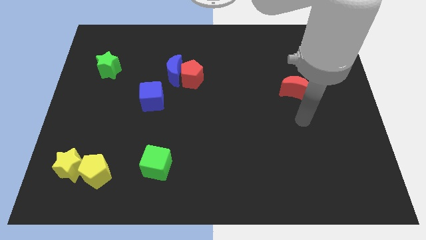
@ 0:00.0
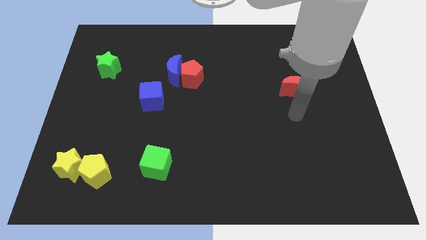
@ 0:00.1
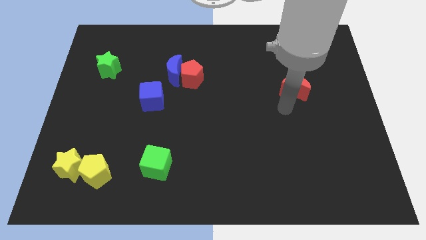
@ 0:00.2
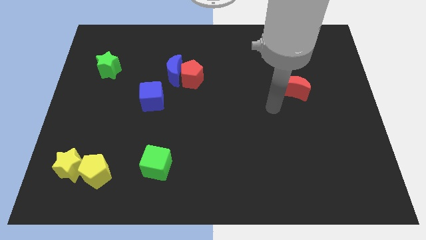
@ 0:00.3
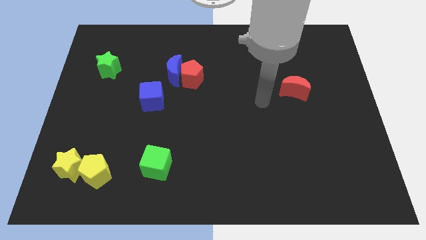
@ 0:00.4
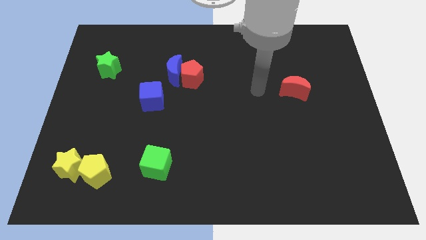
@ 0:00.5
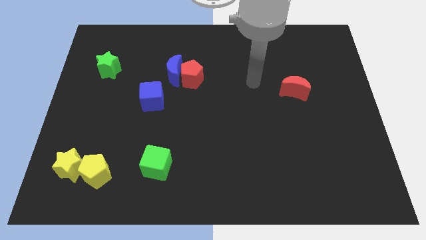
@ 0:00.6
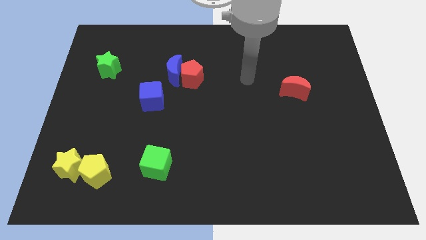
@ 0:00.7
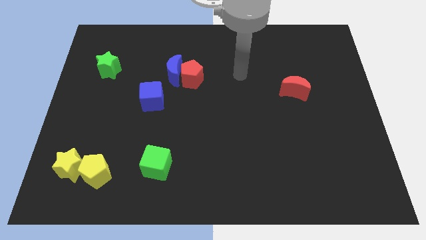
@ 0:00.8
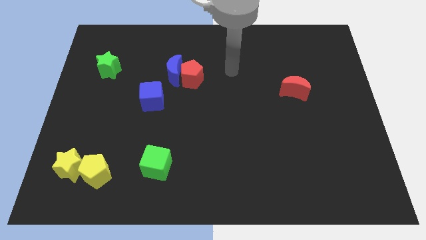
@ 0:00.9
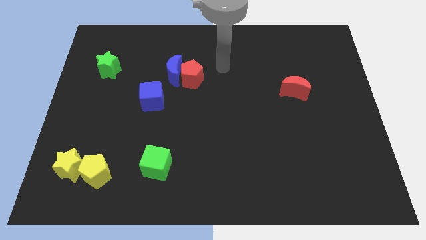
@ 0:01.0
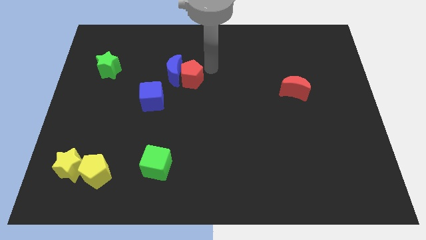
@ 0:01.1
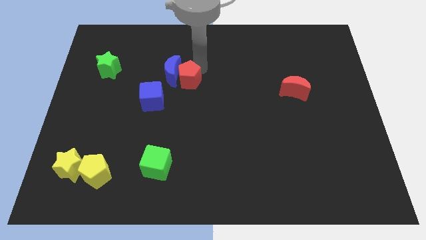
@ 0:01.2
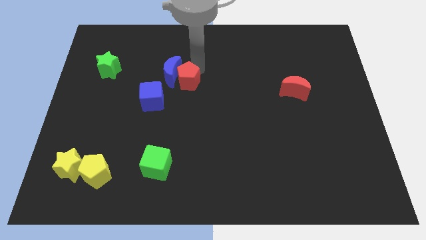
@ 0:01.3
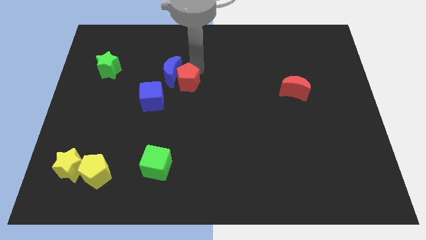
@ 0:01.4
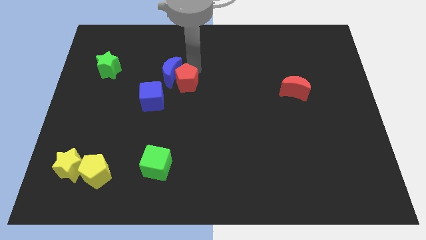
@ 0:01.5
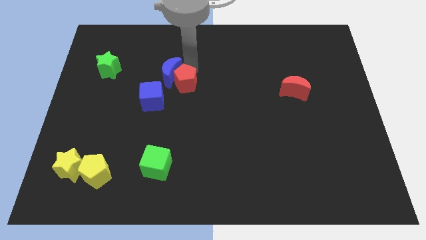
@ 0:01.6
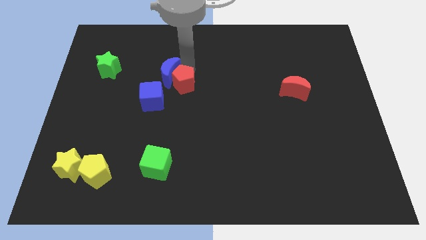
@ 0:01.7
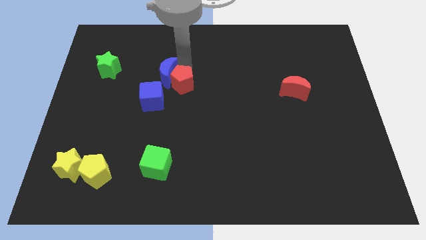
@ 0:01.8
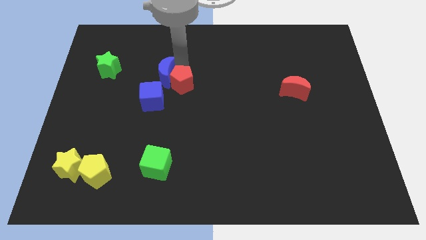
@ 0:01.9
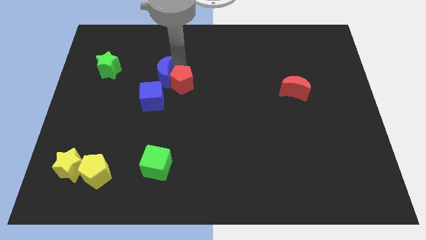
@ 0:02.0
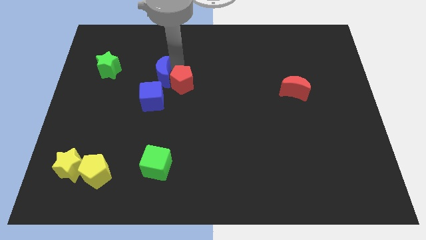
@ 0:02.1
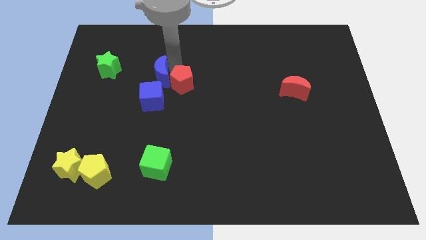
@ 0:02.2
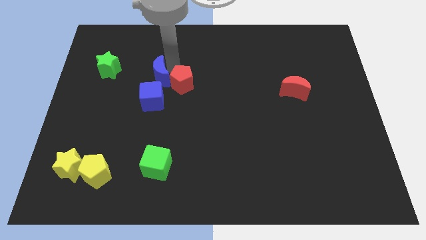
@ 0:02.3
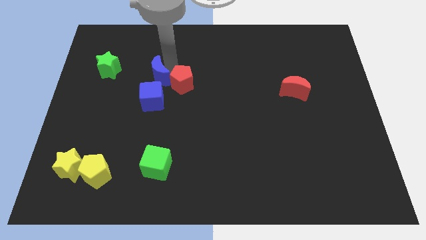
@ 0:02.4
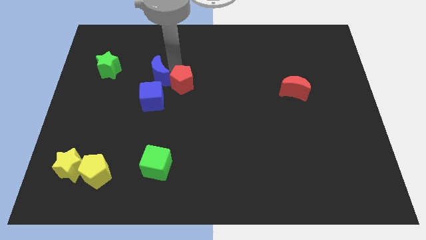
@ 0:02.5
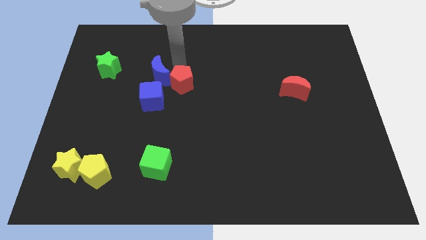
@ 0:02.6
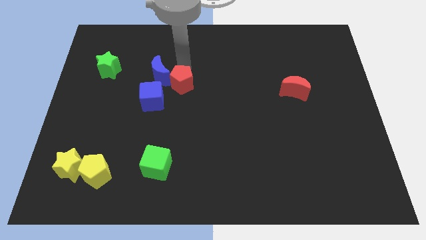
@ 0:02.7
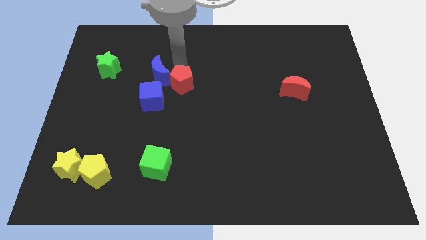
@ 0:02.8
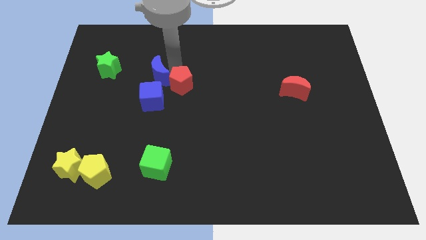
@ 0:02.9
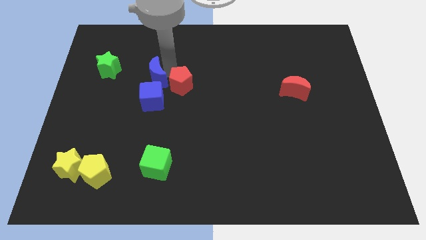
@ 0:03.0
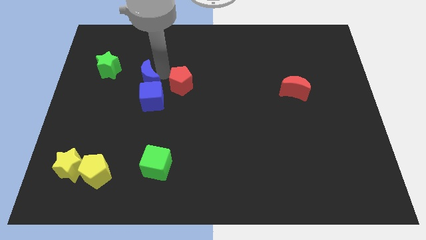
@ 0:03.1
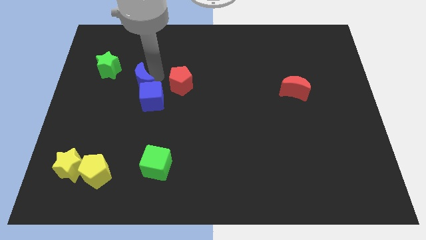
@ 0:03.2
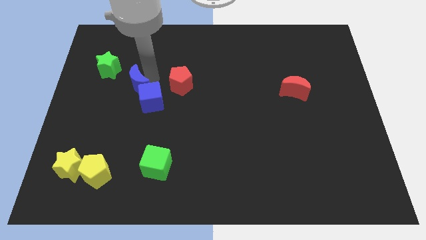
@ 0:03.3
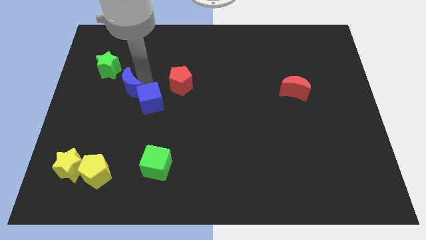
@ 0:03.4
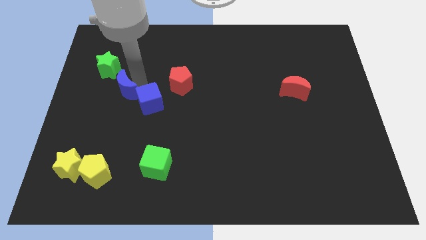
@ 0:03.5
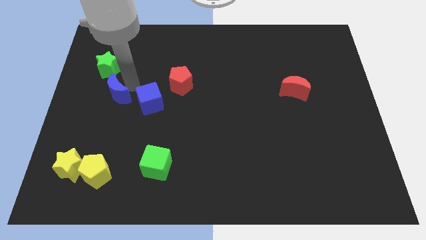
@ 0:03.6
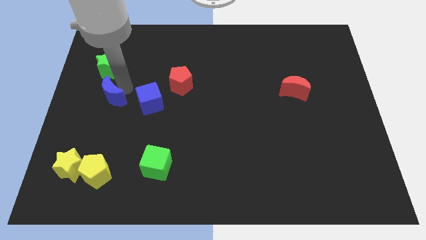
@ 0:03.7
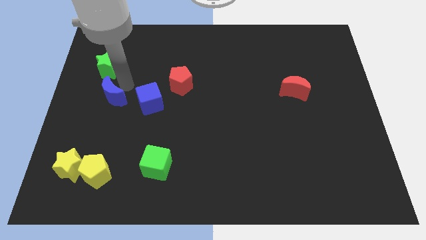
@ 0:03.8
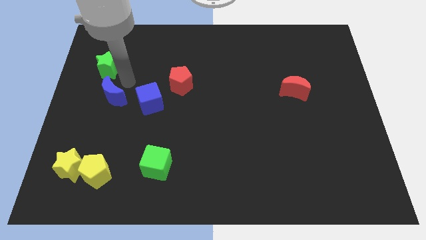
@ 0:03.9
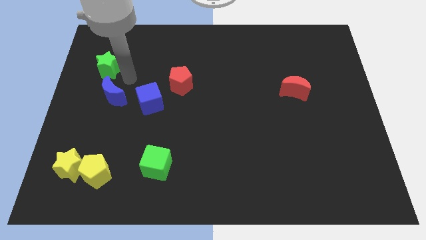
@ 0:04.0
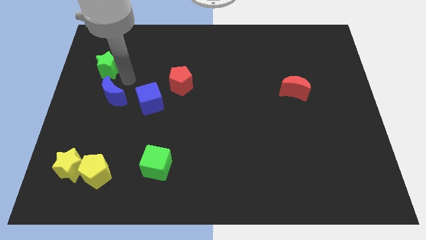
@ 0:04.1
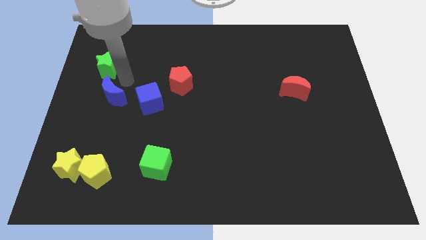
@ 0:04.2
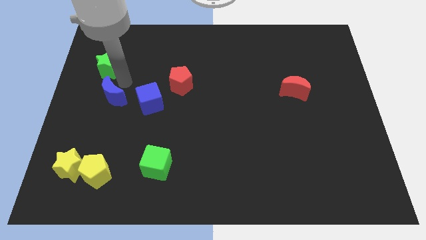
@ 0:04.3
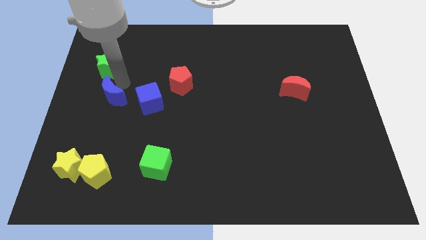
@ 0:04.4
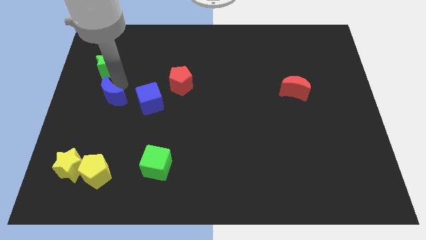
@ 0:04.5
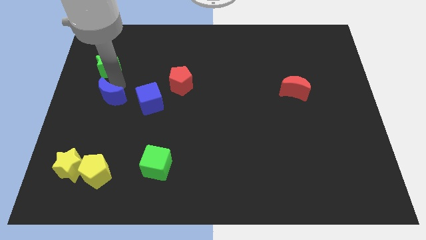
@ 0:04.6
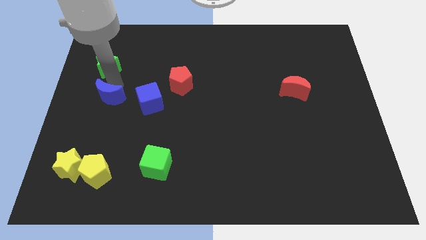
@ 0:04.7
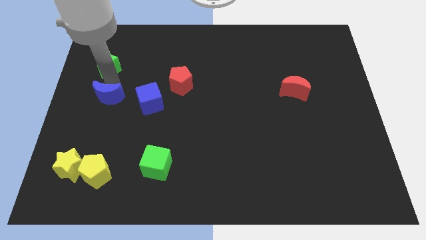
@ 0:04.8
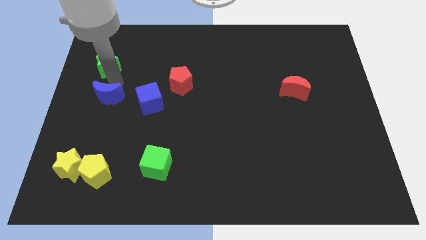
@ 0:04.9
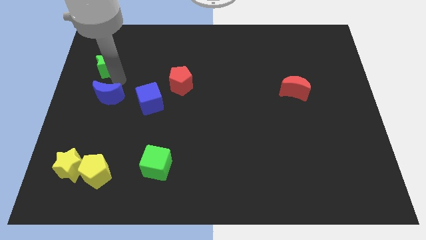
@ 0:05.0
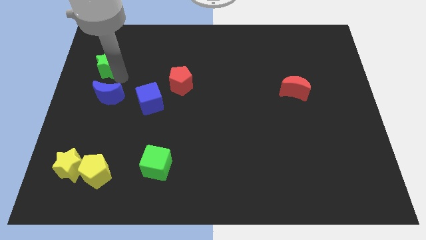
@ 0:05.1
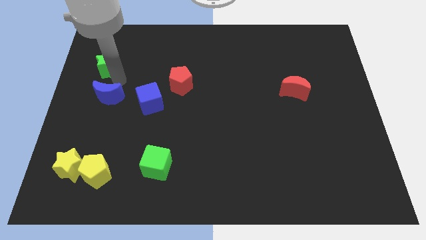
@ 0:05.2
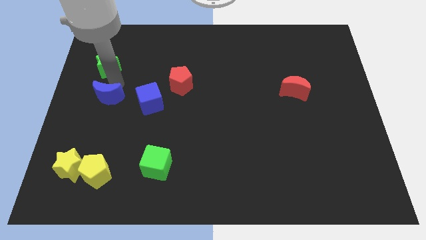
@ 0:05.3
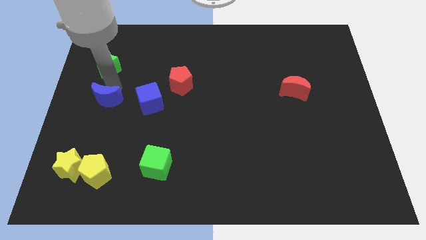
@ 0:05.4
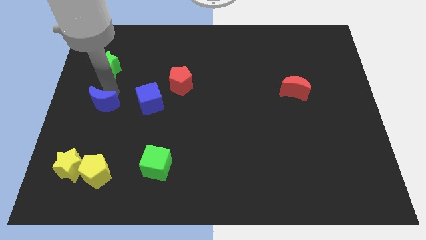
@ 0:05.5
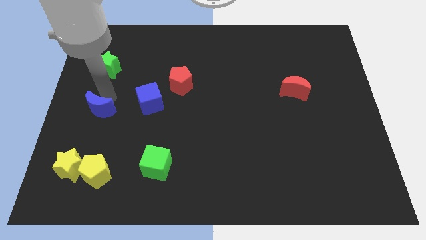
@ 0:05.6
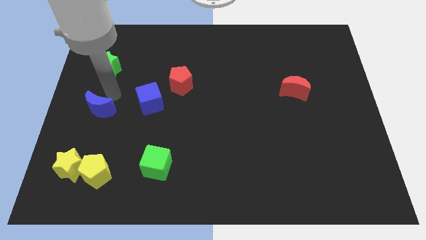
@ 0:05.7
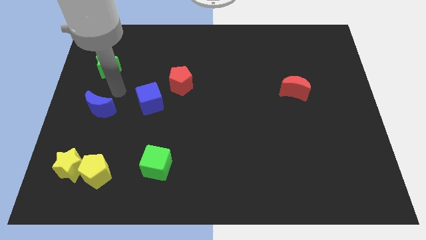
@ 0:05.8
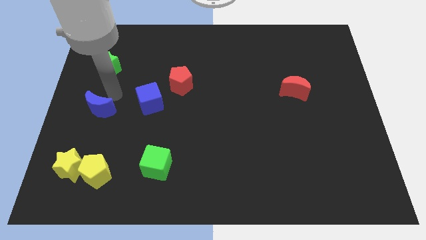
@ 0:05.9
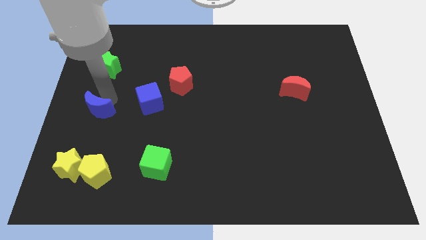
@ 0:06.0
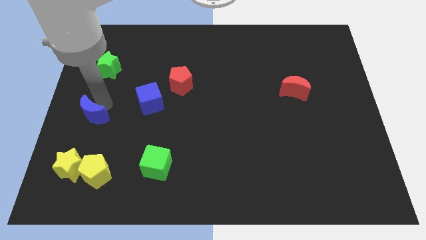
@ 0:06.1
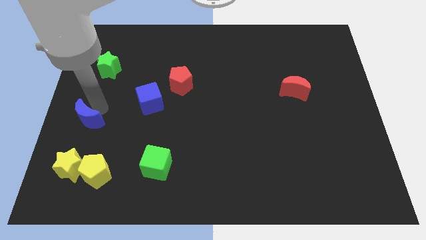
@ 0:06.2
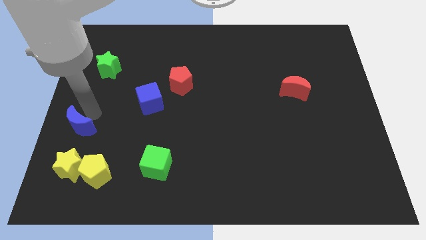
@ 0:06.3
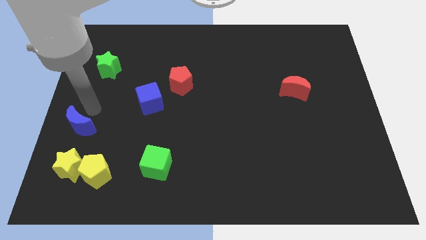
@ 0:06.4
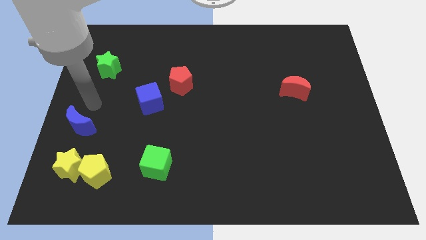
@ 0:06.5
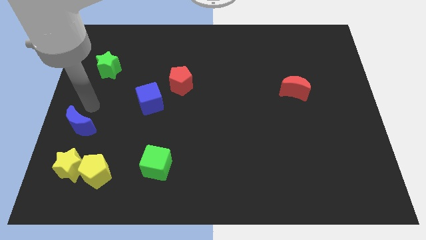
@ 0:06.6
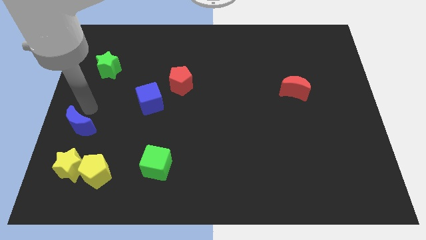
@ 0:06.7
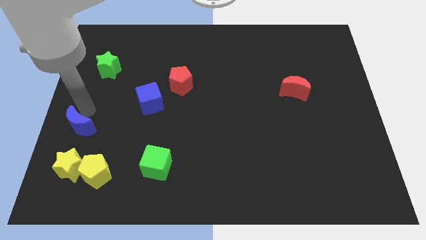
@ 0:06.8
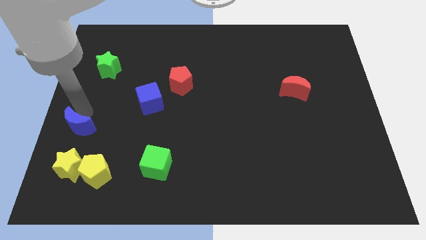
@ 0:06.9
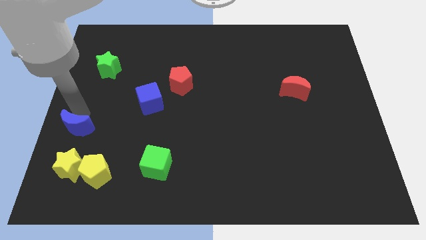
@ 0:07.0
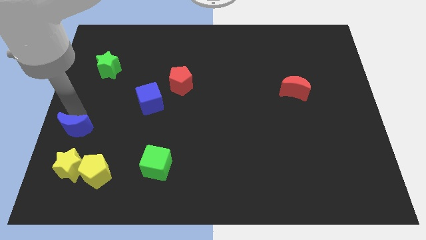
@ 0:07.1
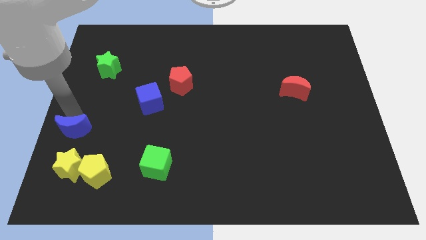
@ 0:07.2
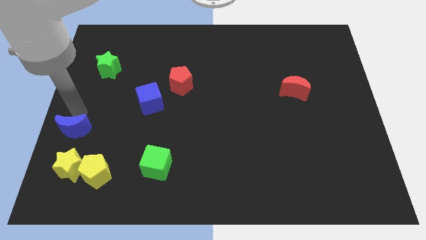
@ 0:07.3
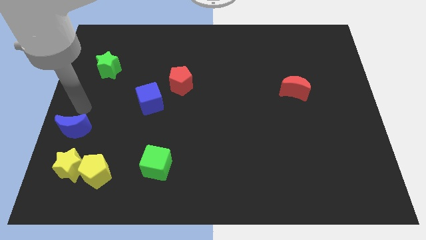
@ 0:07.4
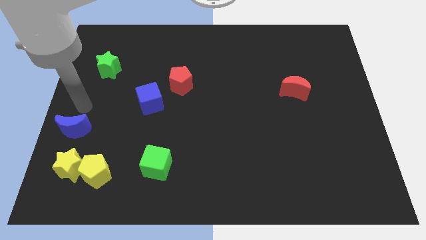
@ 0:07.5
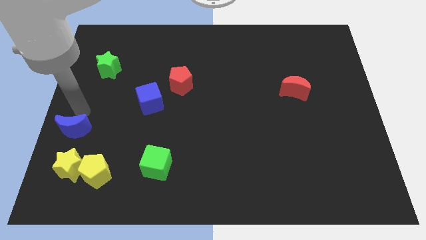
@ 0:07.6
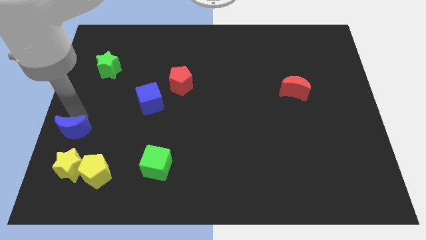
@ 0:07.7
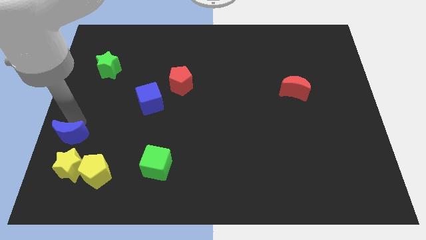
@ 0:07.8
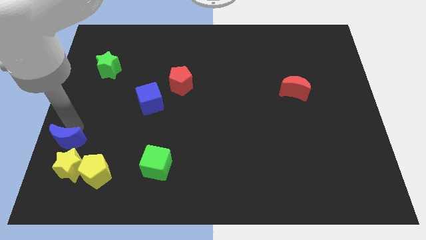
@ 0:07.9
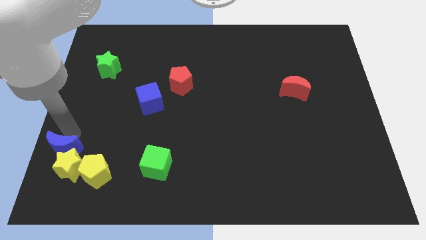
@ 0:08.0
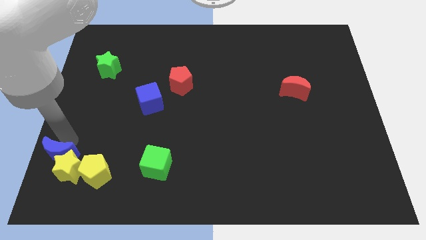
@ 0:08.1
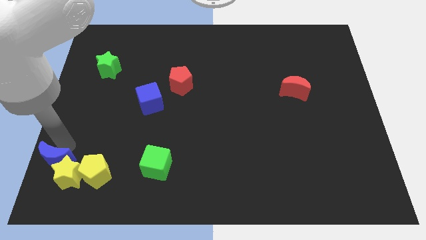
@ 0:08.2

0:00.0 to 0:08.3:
slide the blue moon to the bottom left corner
